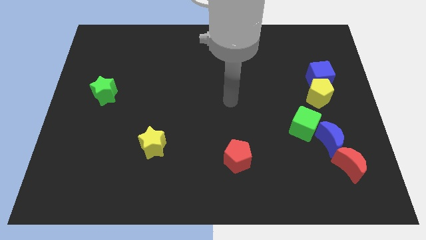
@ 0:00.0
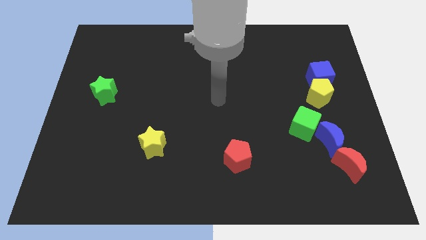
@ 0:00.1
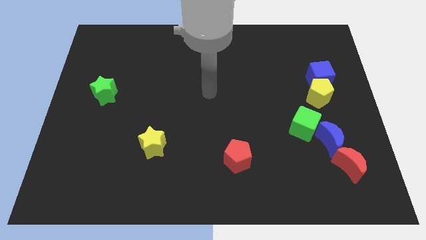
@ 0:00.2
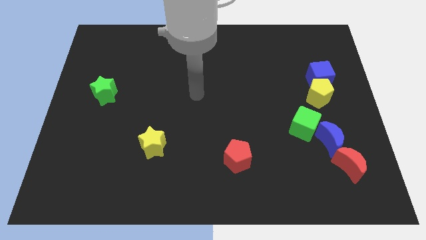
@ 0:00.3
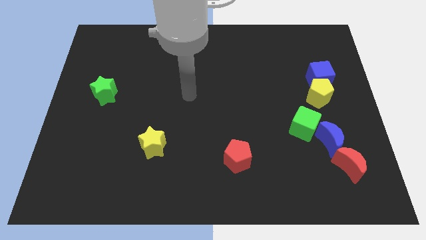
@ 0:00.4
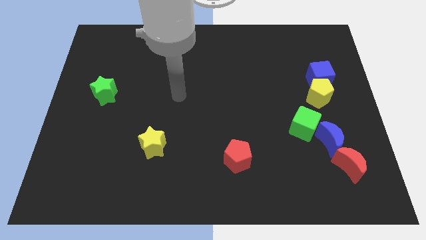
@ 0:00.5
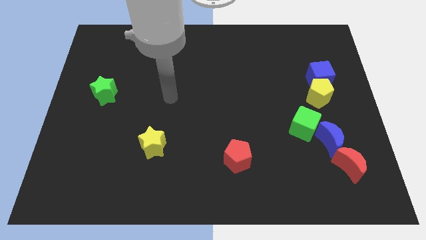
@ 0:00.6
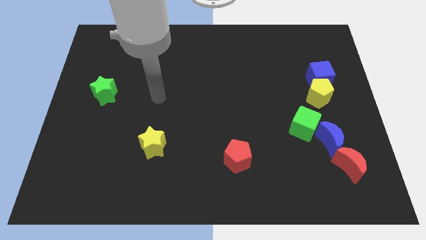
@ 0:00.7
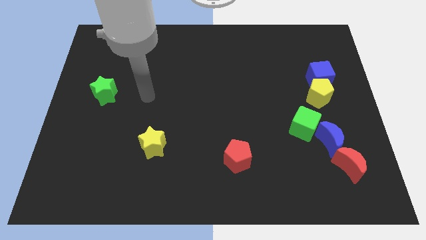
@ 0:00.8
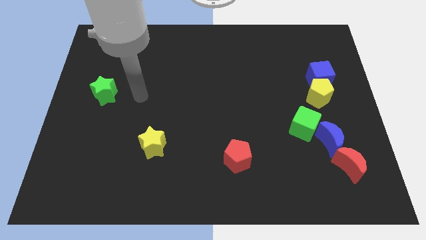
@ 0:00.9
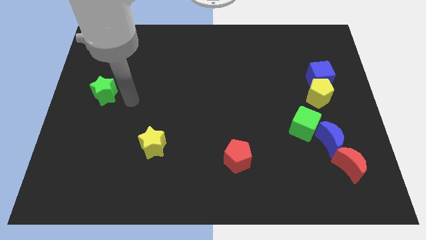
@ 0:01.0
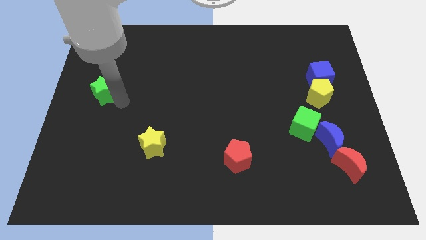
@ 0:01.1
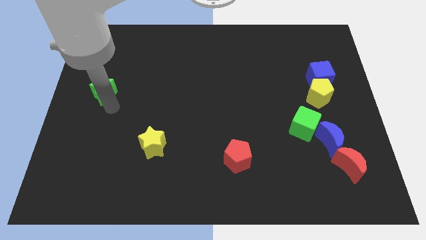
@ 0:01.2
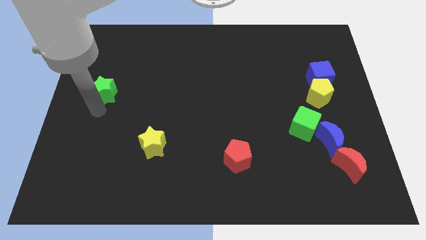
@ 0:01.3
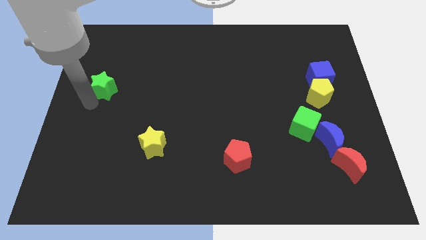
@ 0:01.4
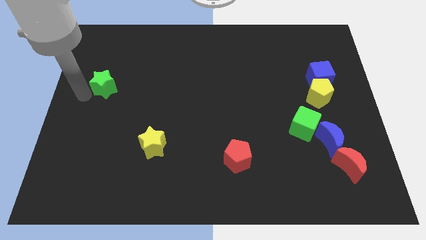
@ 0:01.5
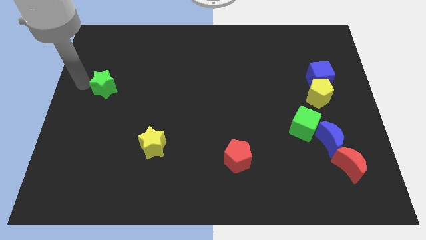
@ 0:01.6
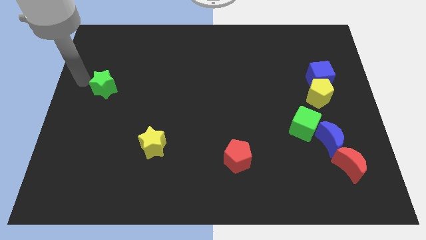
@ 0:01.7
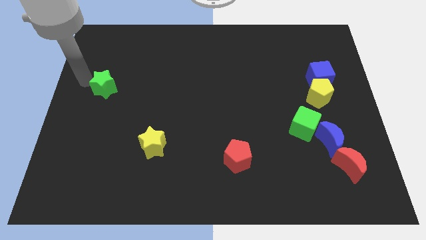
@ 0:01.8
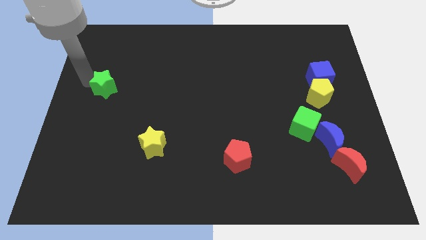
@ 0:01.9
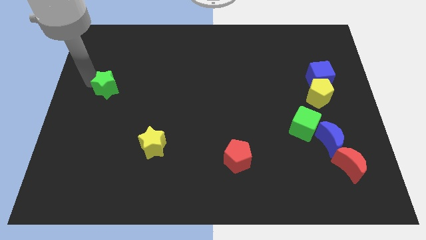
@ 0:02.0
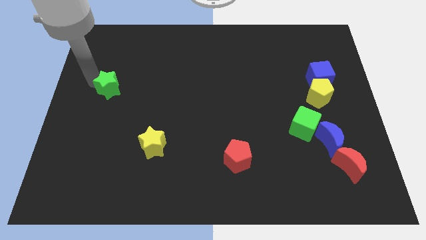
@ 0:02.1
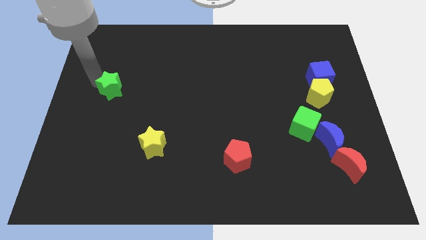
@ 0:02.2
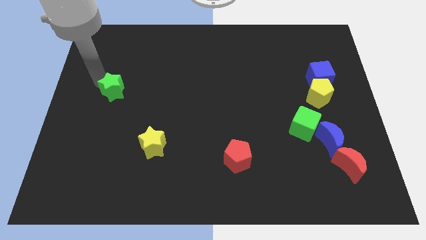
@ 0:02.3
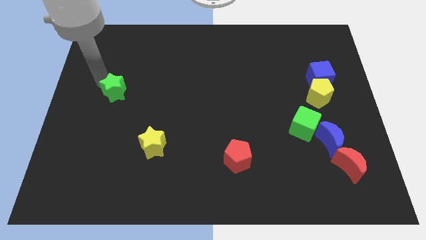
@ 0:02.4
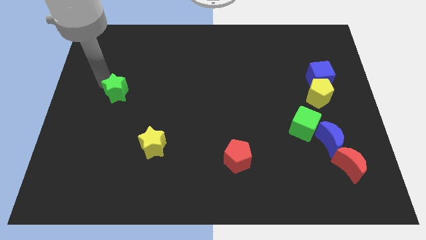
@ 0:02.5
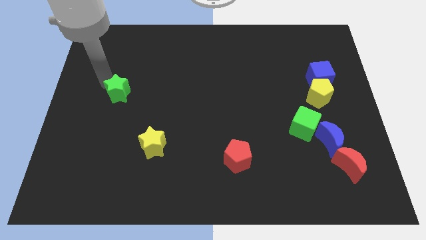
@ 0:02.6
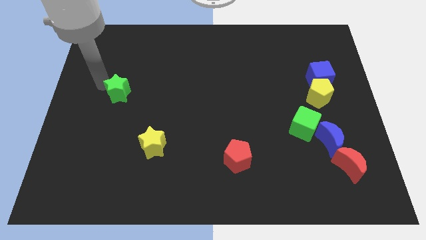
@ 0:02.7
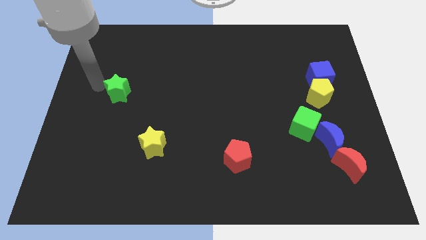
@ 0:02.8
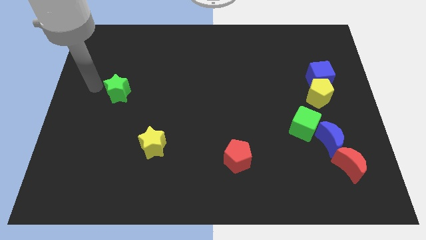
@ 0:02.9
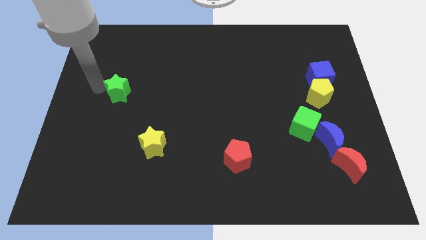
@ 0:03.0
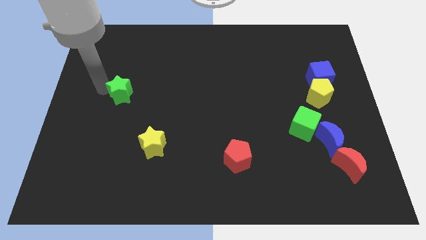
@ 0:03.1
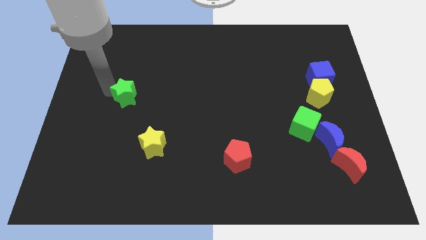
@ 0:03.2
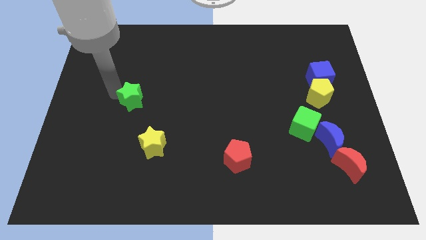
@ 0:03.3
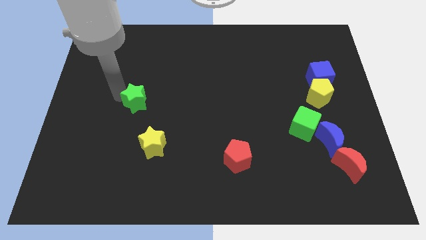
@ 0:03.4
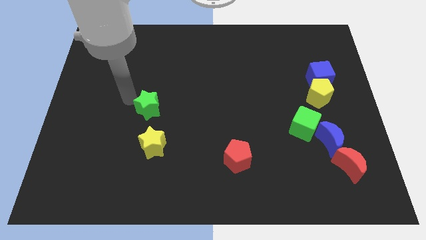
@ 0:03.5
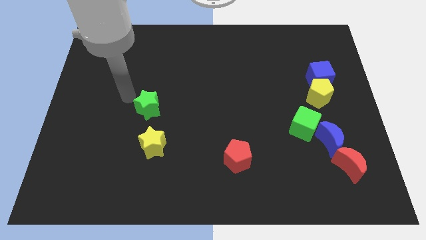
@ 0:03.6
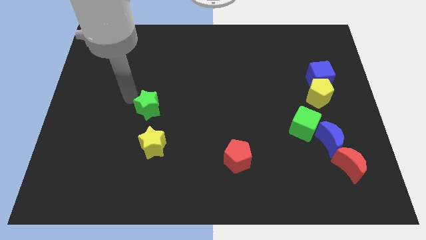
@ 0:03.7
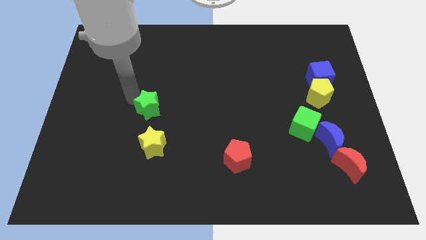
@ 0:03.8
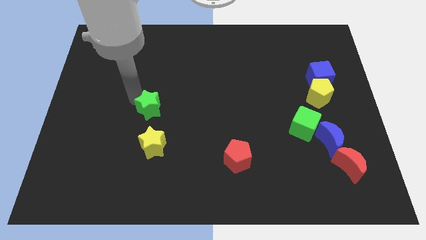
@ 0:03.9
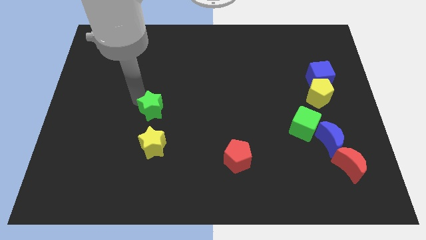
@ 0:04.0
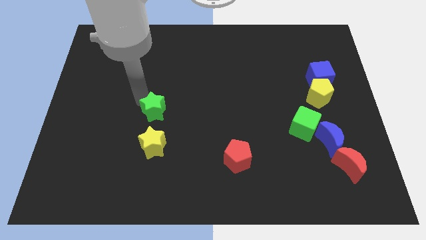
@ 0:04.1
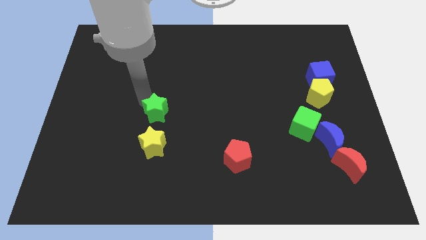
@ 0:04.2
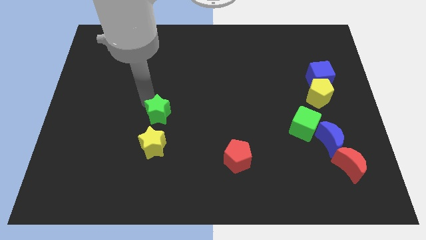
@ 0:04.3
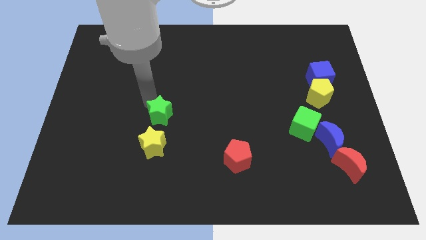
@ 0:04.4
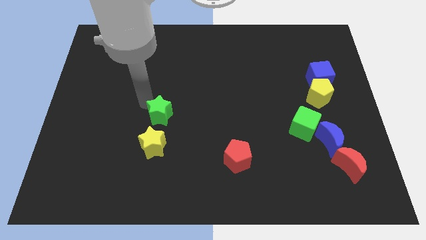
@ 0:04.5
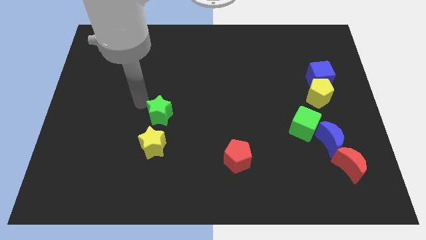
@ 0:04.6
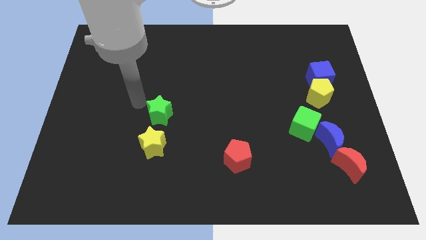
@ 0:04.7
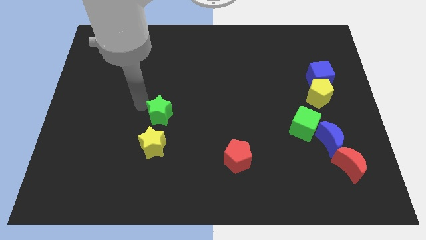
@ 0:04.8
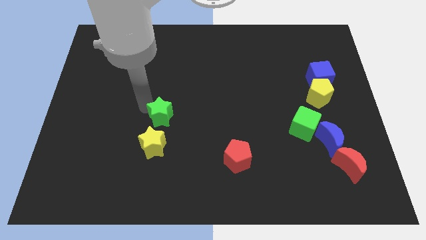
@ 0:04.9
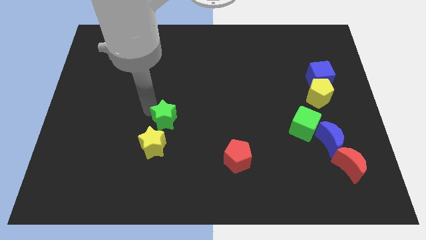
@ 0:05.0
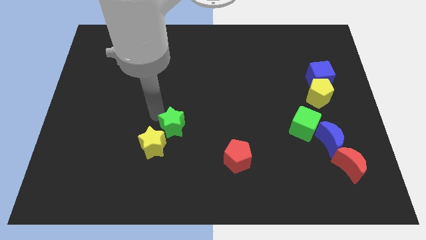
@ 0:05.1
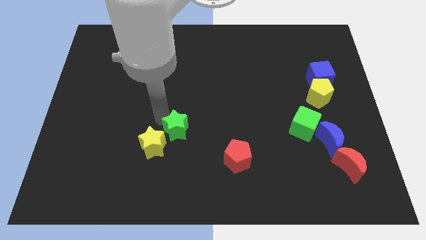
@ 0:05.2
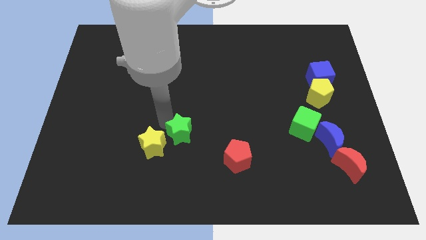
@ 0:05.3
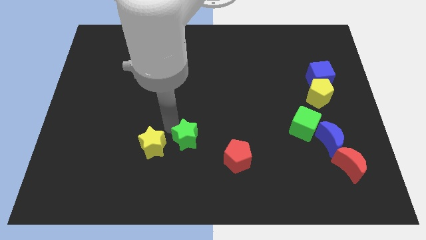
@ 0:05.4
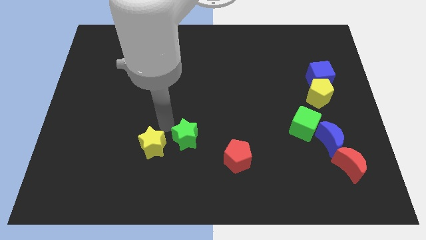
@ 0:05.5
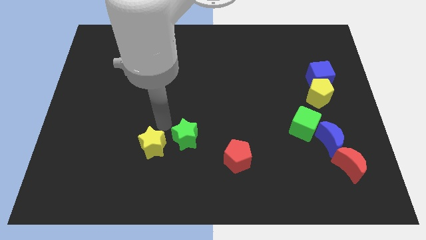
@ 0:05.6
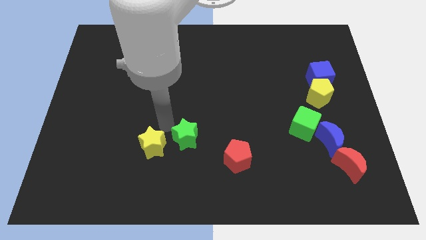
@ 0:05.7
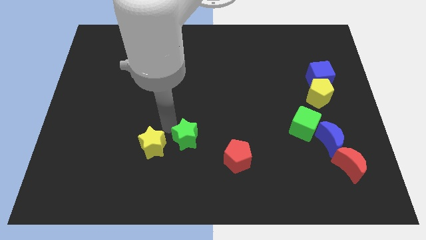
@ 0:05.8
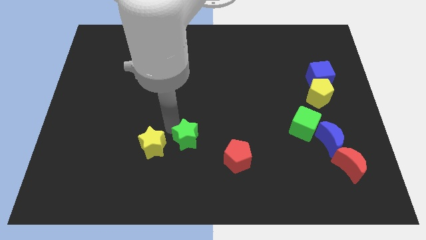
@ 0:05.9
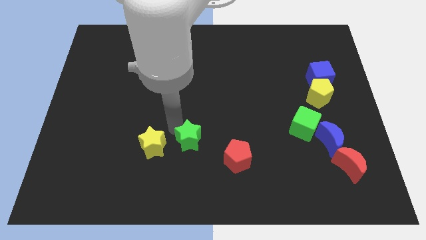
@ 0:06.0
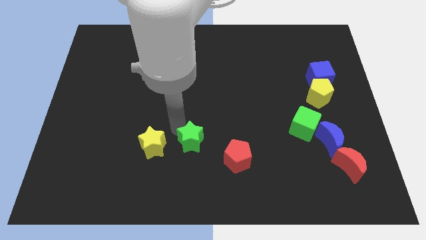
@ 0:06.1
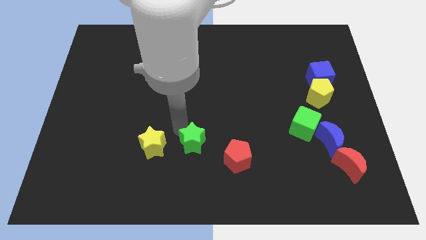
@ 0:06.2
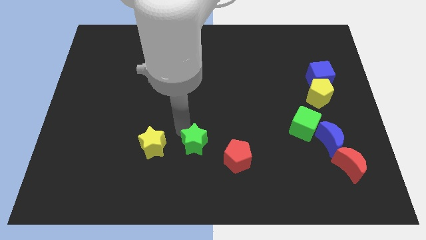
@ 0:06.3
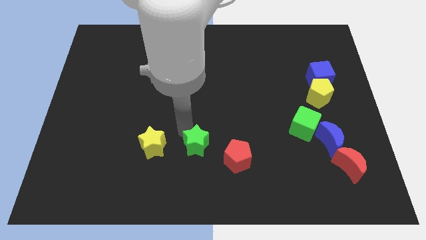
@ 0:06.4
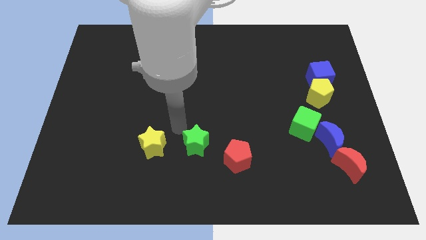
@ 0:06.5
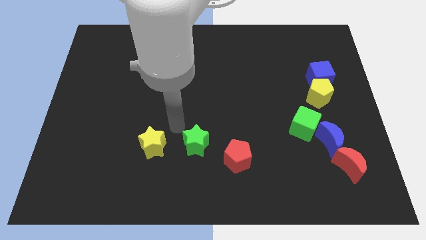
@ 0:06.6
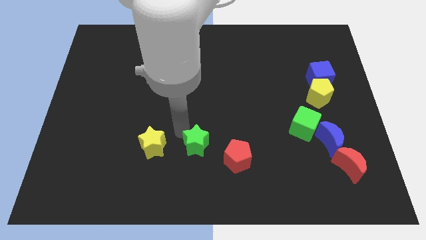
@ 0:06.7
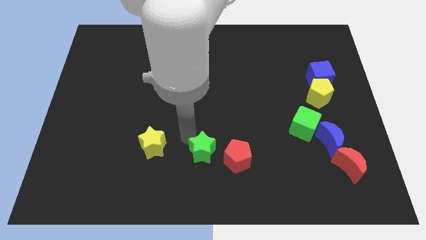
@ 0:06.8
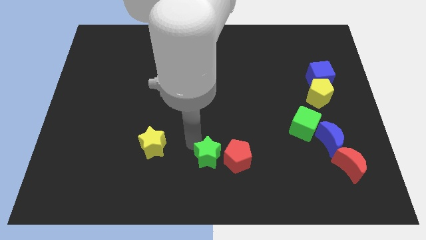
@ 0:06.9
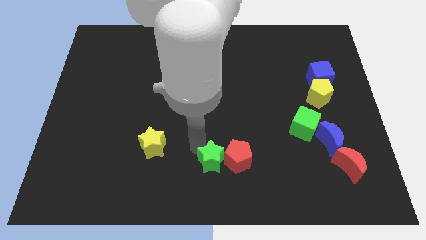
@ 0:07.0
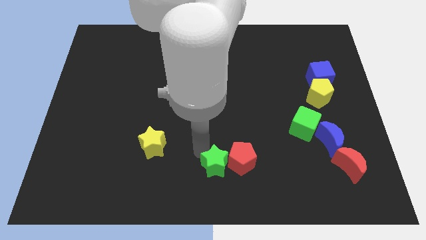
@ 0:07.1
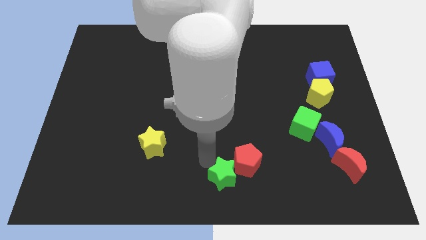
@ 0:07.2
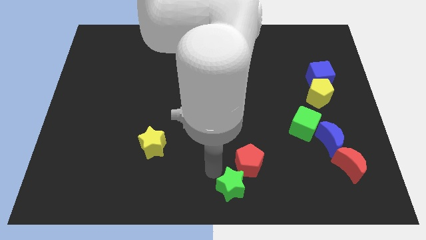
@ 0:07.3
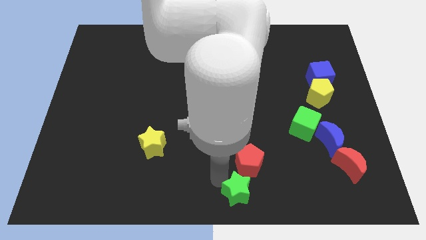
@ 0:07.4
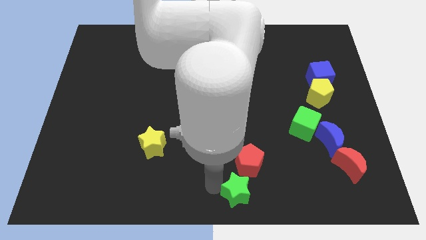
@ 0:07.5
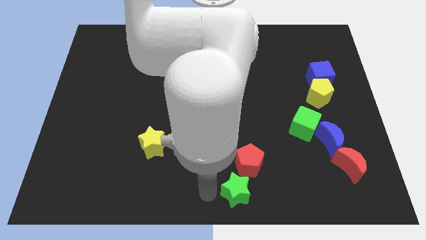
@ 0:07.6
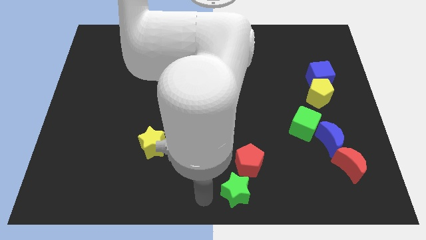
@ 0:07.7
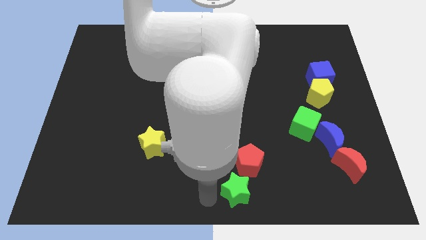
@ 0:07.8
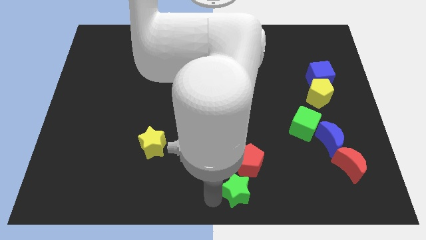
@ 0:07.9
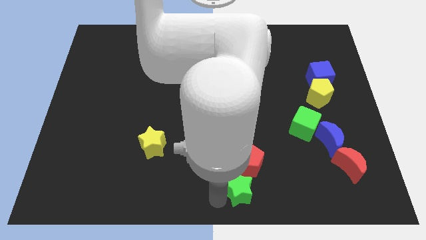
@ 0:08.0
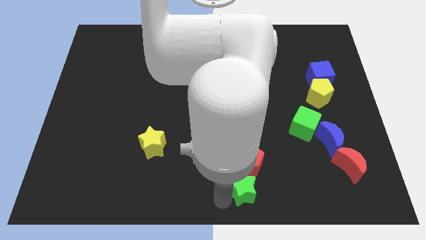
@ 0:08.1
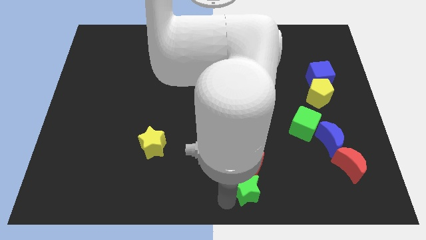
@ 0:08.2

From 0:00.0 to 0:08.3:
put the green star diagonally down and to the right of the red pentagon

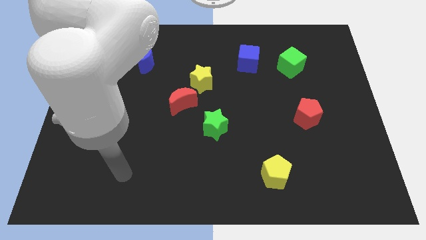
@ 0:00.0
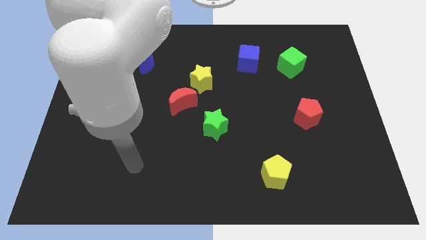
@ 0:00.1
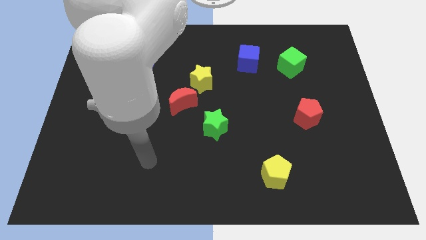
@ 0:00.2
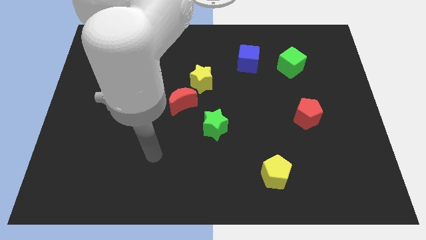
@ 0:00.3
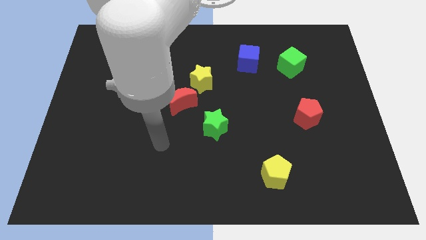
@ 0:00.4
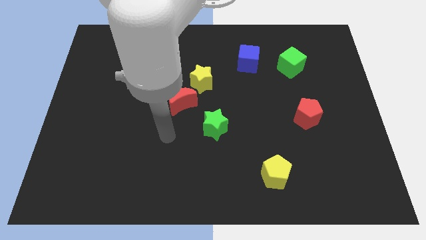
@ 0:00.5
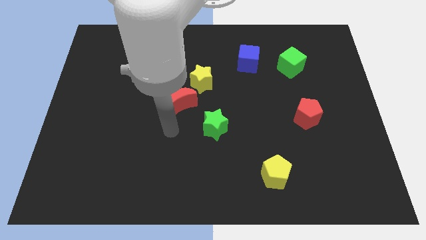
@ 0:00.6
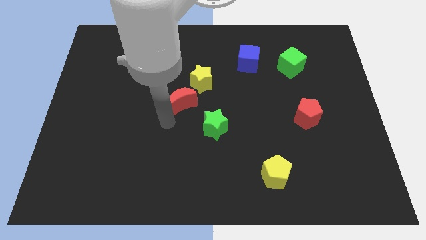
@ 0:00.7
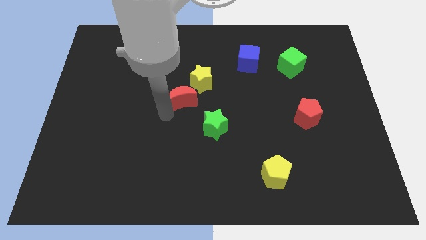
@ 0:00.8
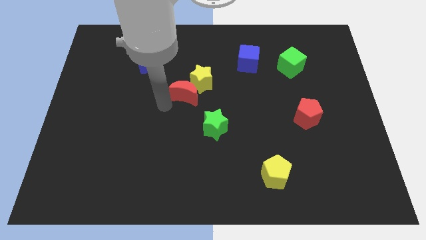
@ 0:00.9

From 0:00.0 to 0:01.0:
push the yellow star right of the red moon
